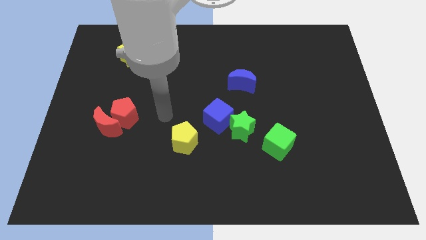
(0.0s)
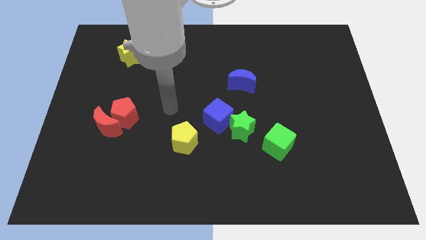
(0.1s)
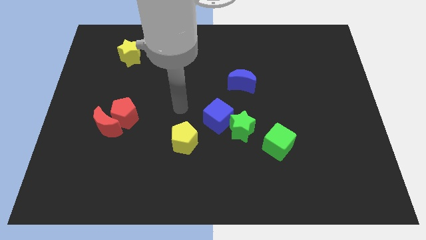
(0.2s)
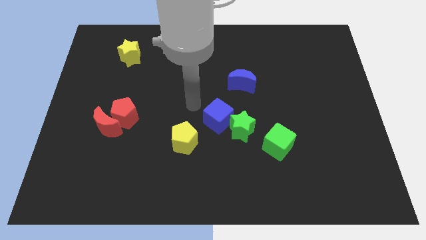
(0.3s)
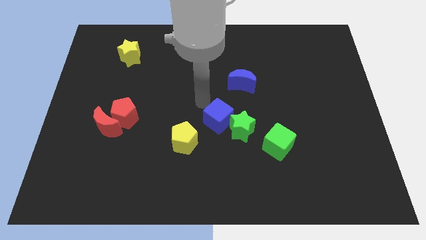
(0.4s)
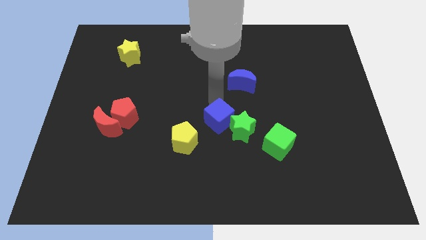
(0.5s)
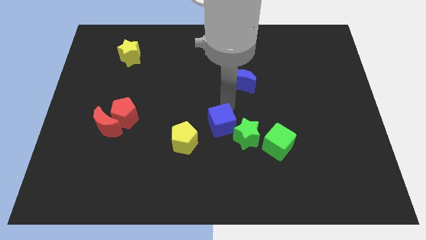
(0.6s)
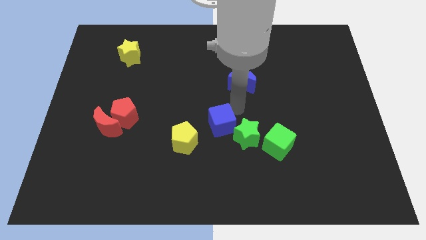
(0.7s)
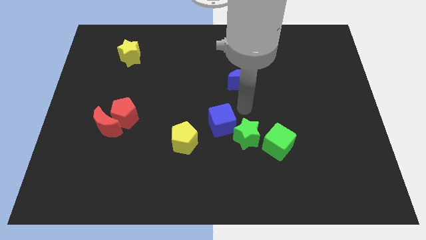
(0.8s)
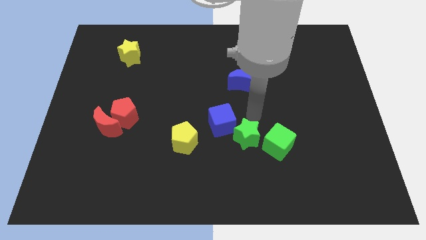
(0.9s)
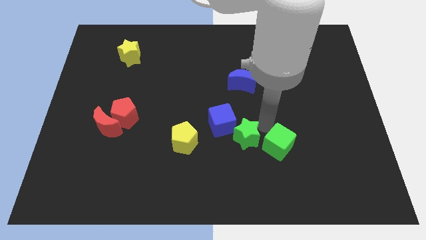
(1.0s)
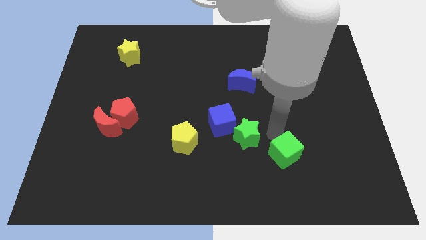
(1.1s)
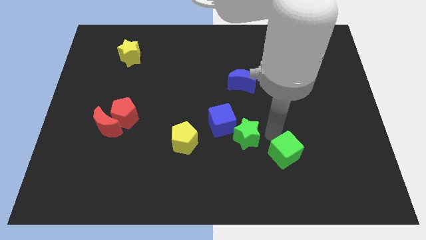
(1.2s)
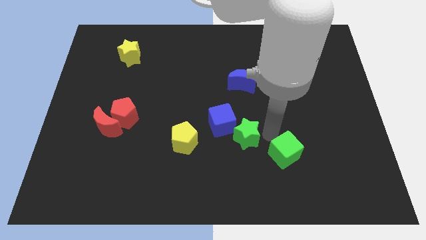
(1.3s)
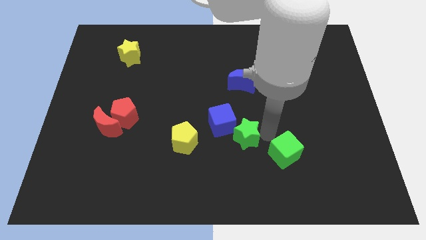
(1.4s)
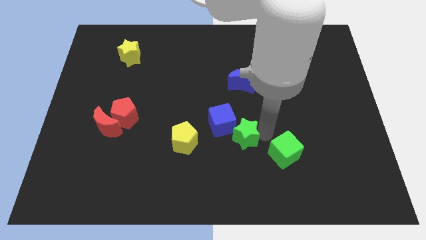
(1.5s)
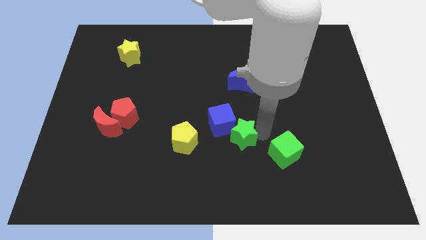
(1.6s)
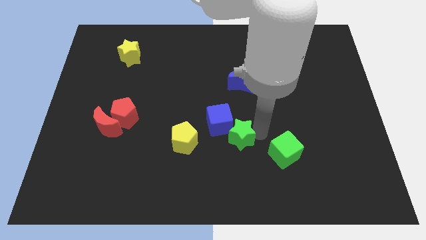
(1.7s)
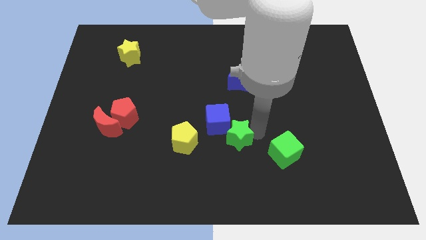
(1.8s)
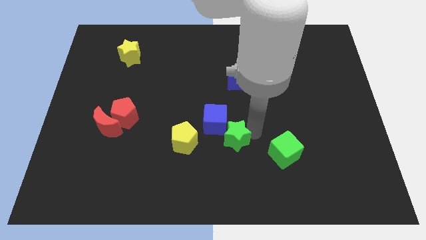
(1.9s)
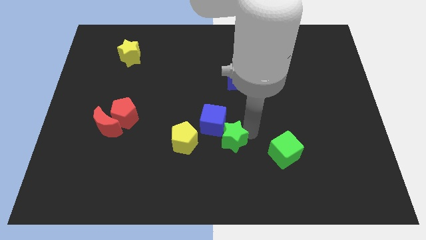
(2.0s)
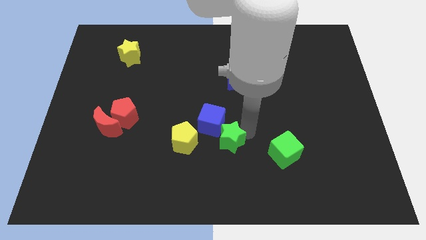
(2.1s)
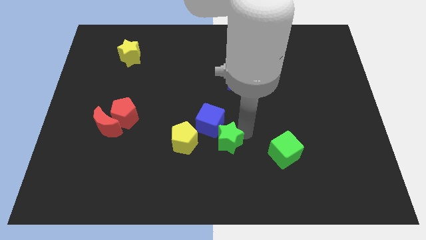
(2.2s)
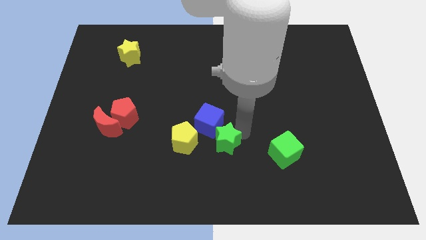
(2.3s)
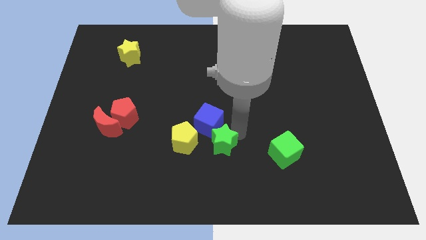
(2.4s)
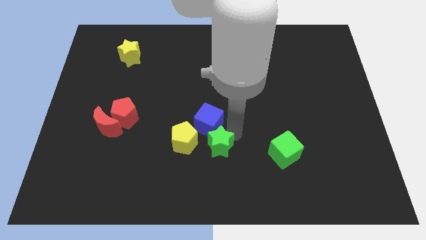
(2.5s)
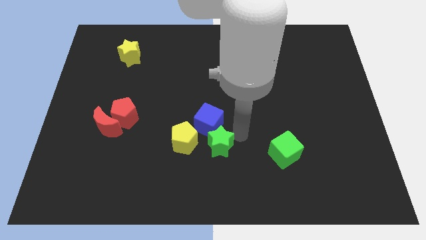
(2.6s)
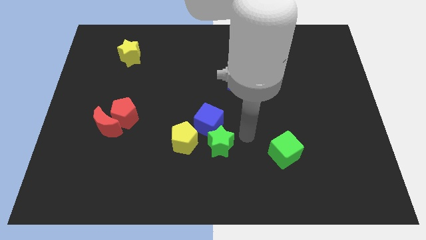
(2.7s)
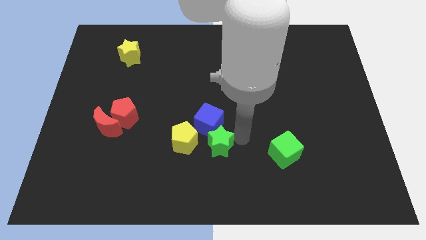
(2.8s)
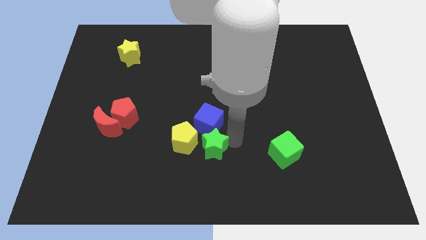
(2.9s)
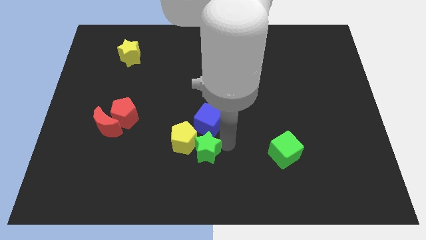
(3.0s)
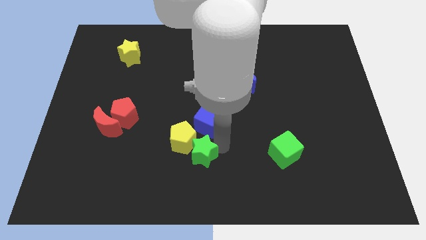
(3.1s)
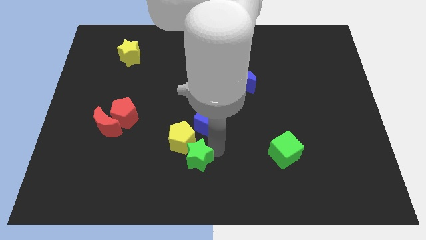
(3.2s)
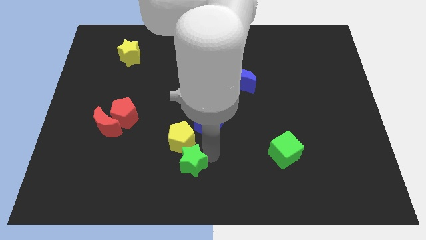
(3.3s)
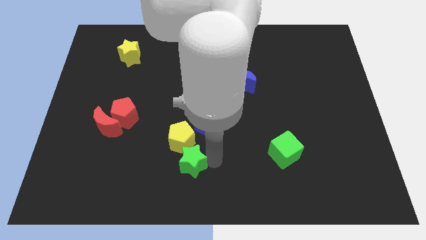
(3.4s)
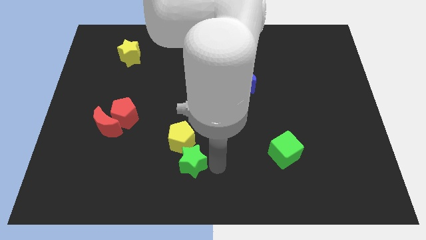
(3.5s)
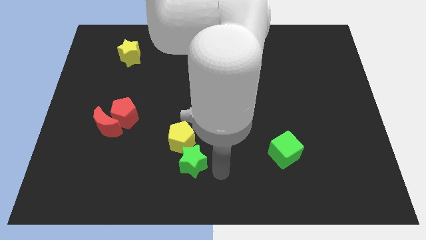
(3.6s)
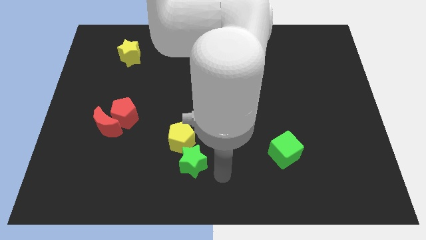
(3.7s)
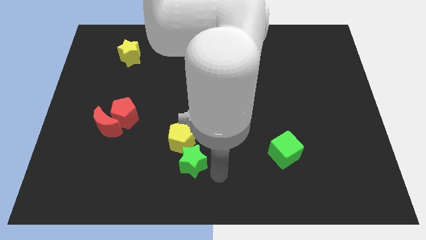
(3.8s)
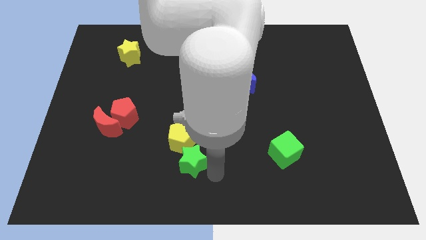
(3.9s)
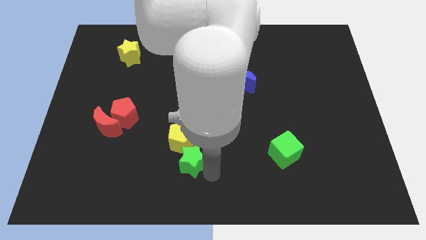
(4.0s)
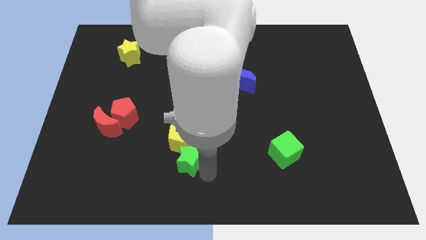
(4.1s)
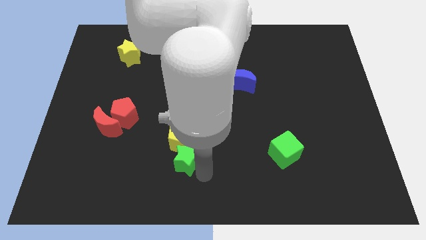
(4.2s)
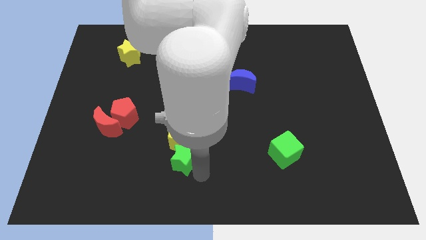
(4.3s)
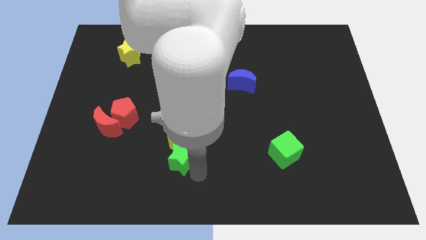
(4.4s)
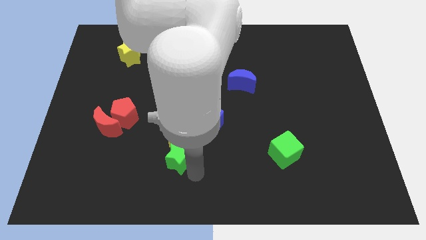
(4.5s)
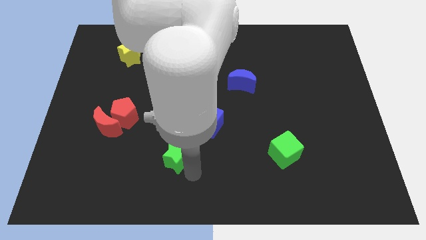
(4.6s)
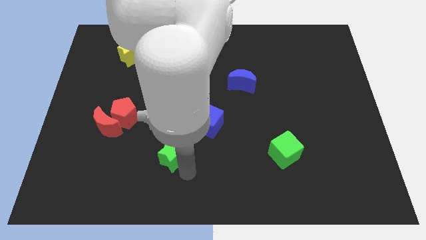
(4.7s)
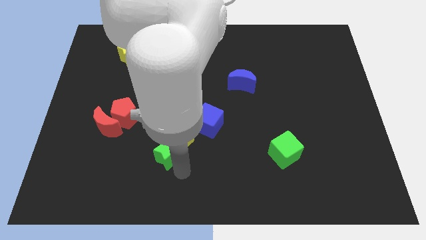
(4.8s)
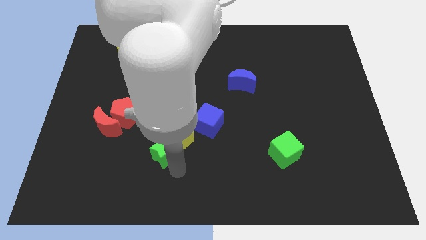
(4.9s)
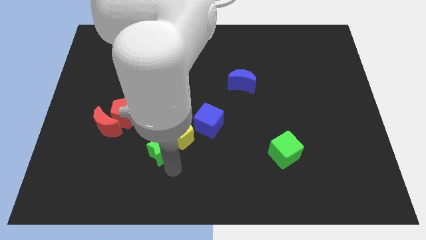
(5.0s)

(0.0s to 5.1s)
slide the green star to the left of the yellow pentagon

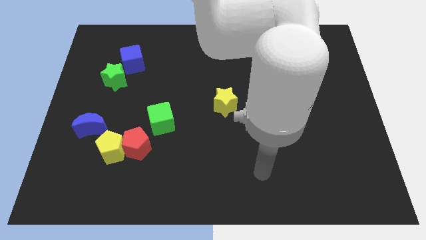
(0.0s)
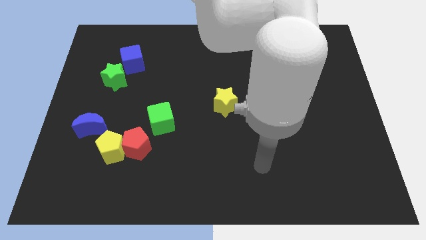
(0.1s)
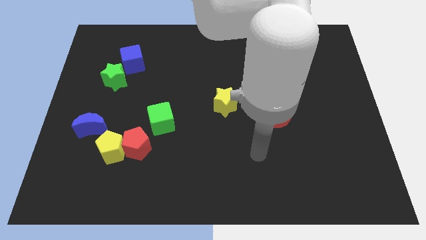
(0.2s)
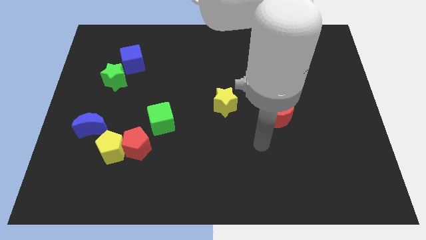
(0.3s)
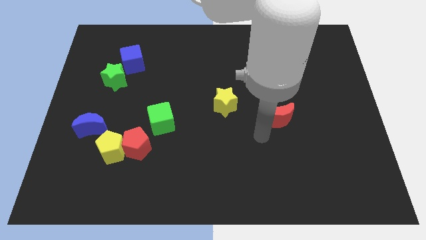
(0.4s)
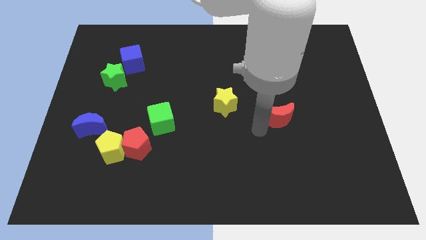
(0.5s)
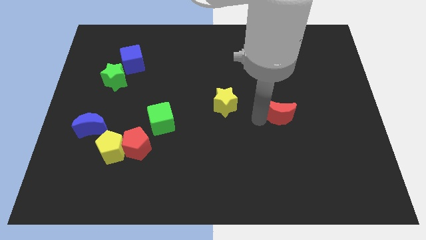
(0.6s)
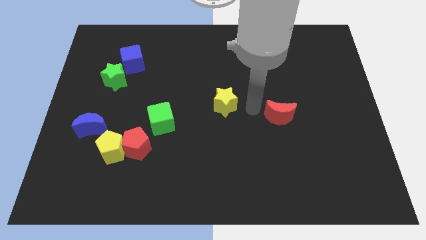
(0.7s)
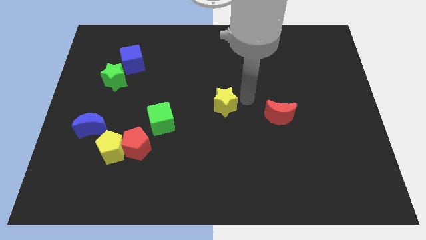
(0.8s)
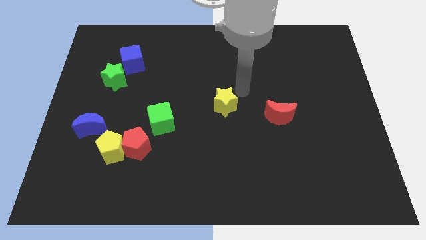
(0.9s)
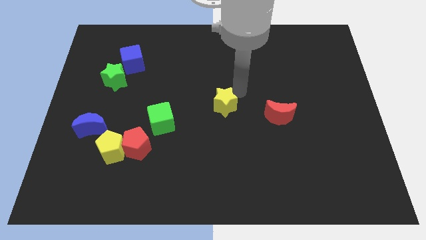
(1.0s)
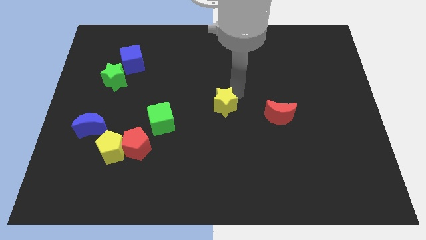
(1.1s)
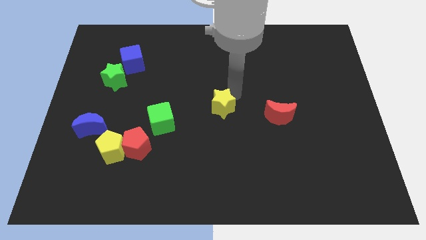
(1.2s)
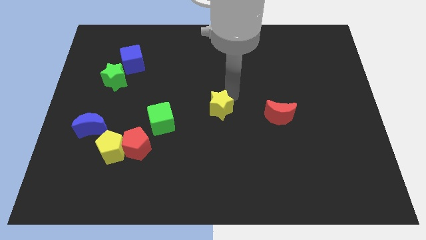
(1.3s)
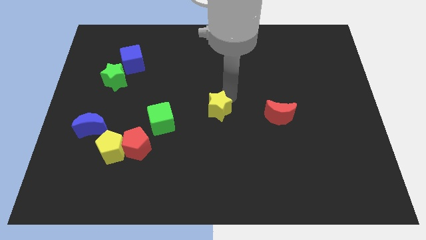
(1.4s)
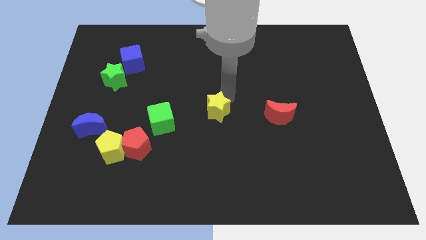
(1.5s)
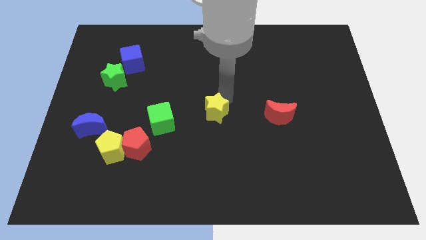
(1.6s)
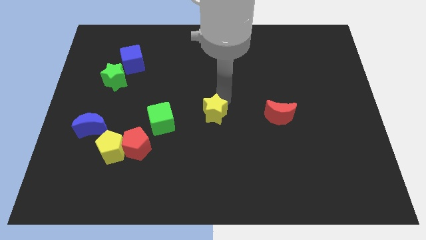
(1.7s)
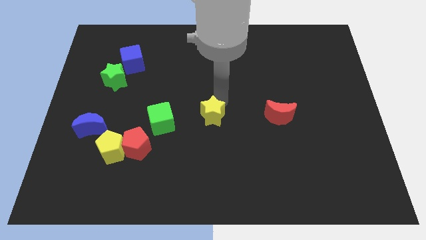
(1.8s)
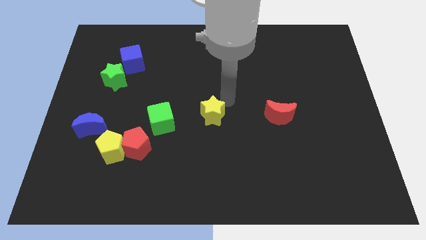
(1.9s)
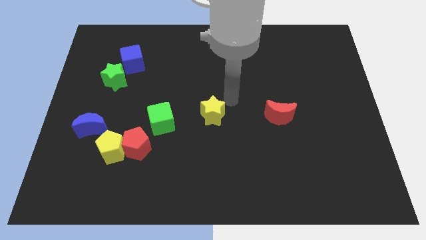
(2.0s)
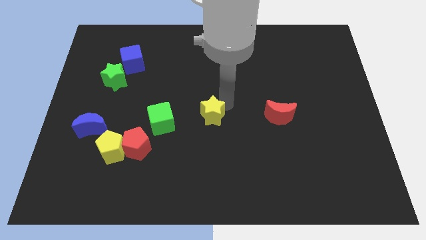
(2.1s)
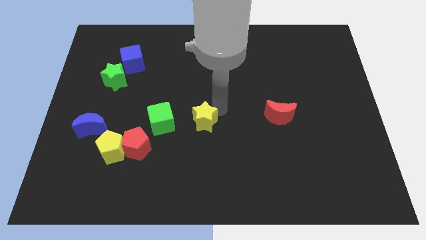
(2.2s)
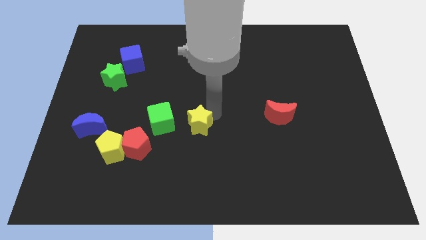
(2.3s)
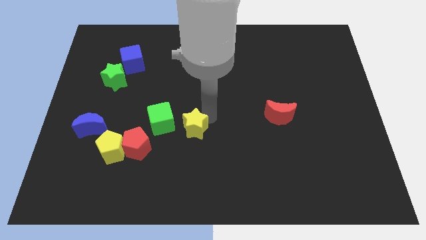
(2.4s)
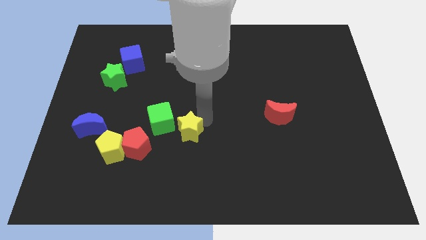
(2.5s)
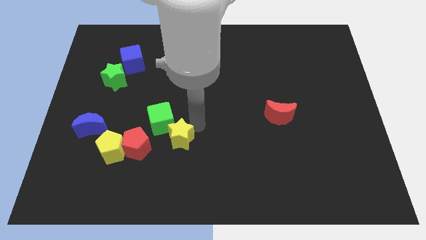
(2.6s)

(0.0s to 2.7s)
put the yellow star to the bottom side of the green cube
